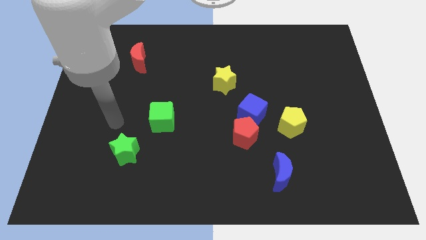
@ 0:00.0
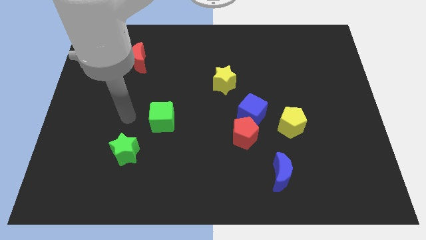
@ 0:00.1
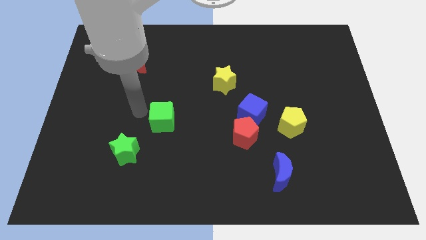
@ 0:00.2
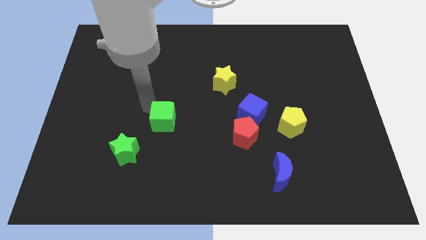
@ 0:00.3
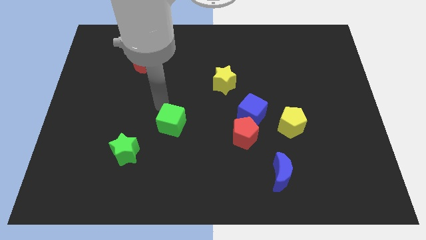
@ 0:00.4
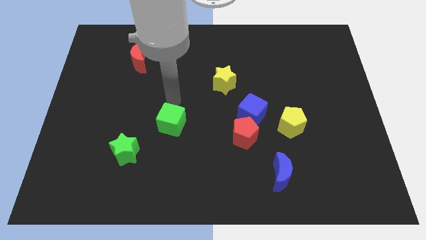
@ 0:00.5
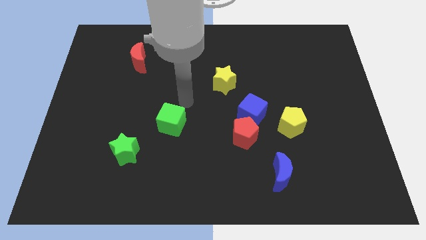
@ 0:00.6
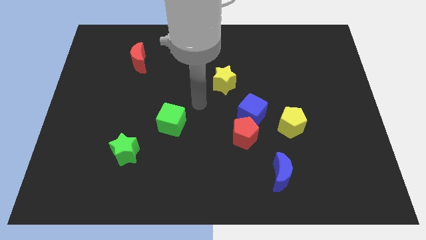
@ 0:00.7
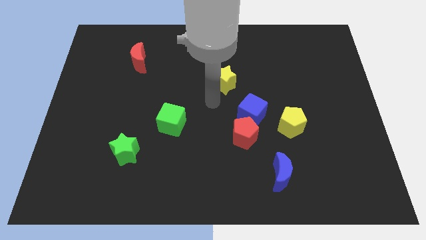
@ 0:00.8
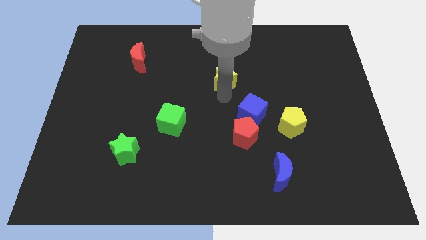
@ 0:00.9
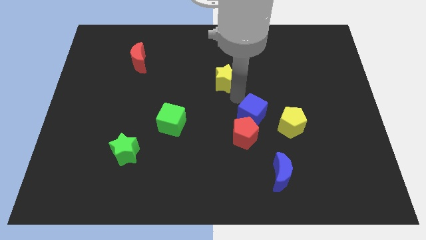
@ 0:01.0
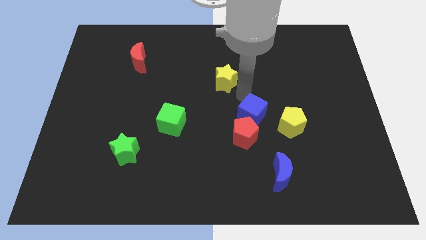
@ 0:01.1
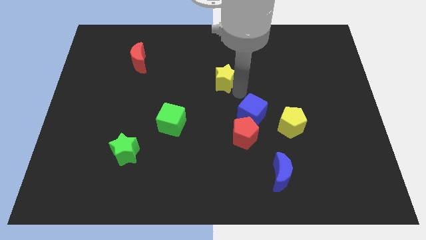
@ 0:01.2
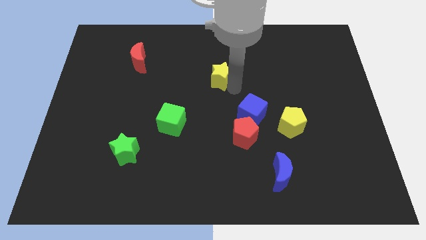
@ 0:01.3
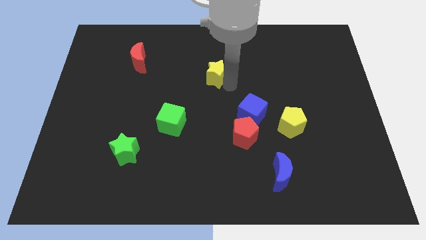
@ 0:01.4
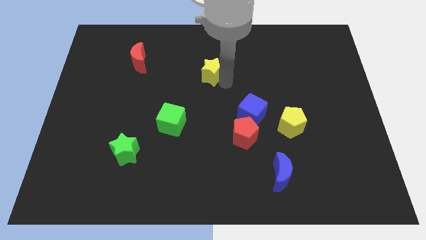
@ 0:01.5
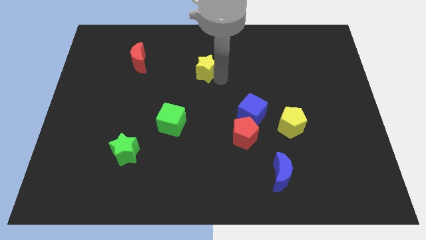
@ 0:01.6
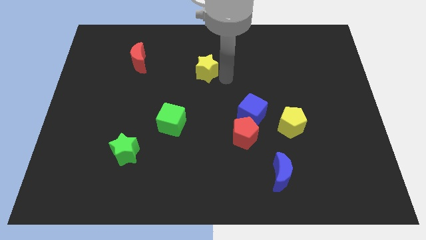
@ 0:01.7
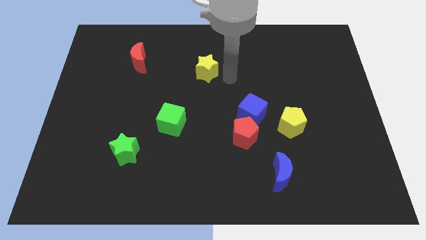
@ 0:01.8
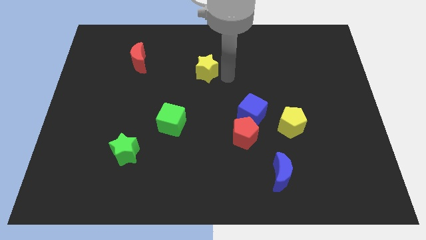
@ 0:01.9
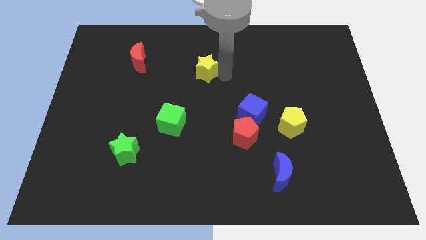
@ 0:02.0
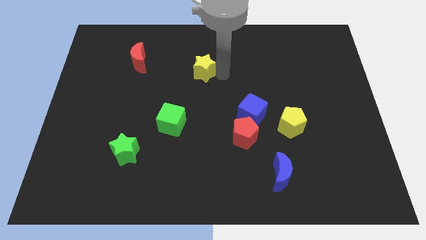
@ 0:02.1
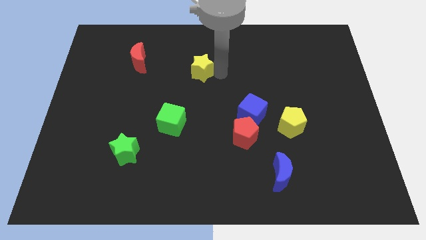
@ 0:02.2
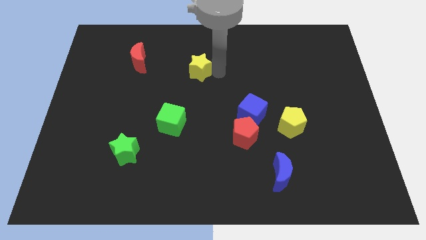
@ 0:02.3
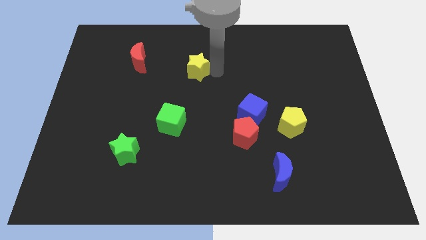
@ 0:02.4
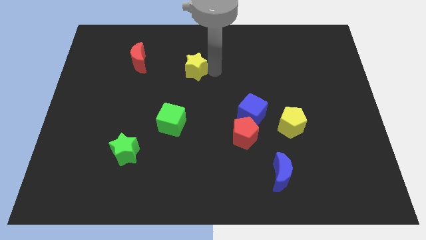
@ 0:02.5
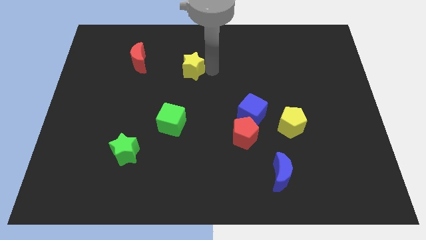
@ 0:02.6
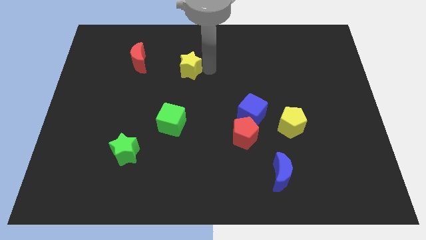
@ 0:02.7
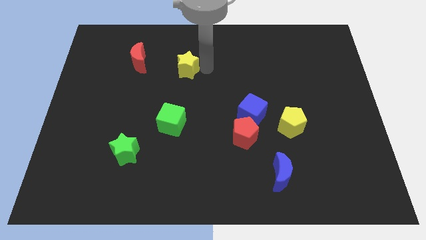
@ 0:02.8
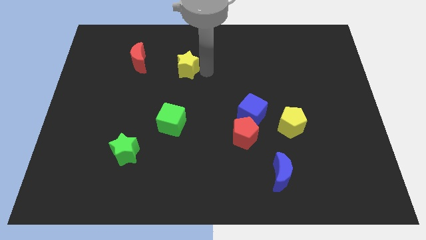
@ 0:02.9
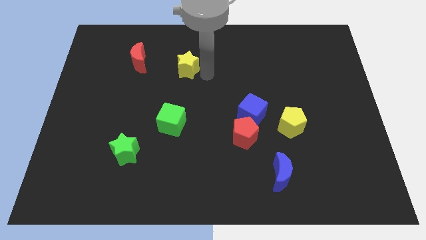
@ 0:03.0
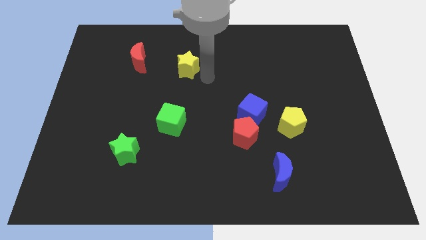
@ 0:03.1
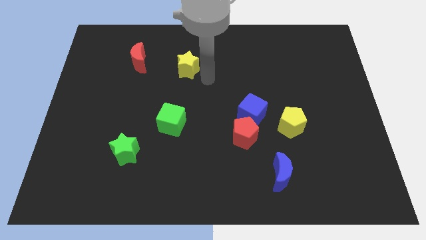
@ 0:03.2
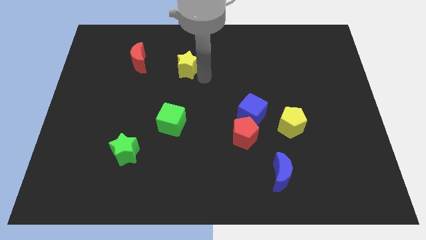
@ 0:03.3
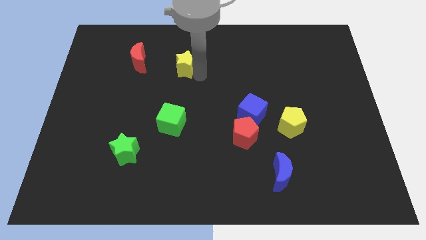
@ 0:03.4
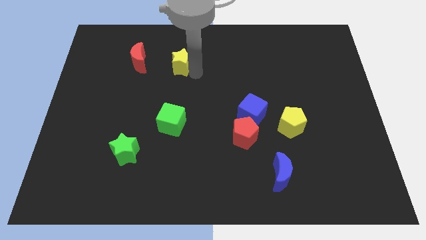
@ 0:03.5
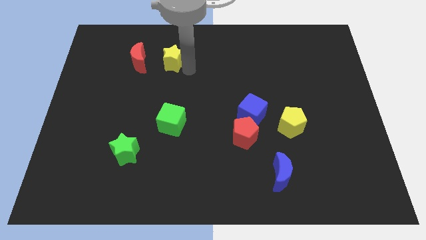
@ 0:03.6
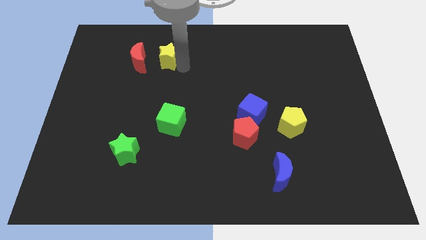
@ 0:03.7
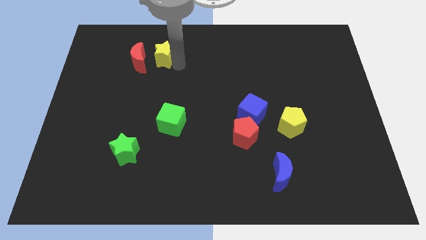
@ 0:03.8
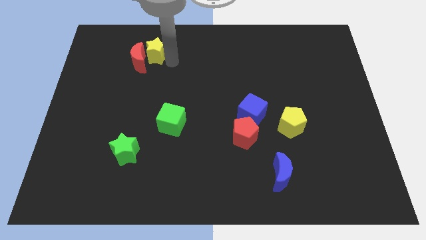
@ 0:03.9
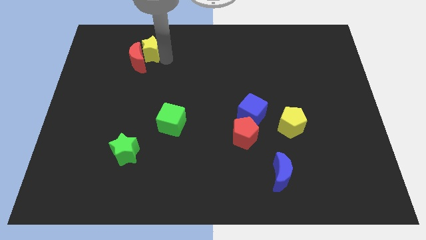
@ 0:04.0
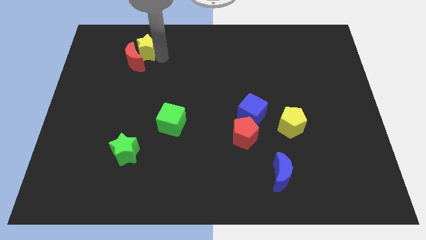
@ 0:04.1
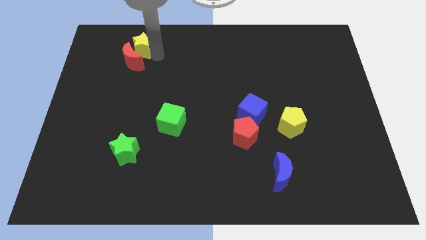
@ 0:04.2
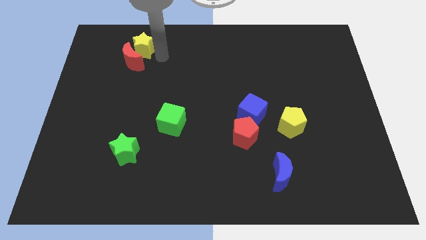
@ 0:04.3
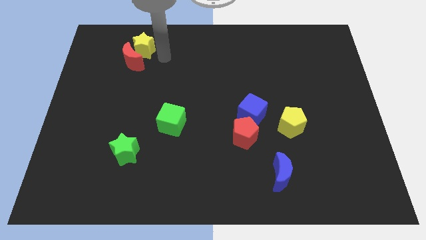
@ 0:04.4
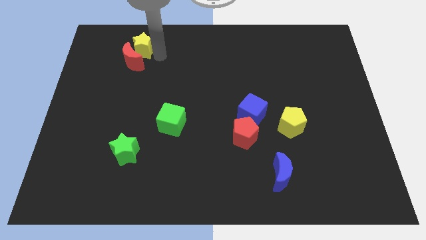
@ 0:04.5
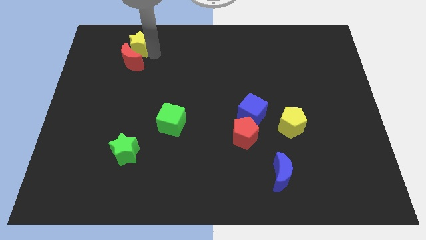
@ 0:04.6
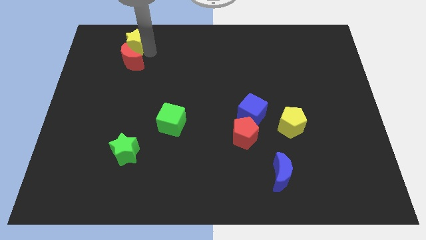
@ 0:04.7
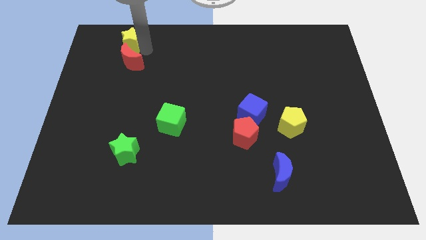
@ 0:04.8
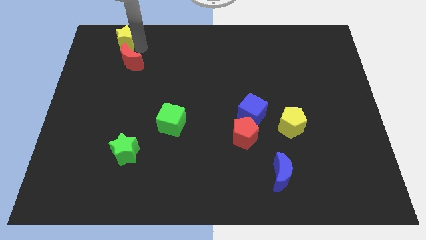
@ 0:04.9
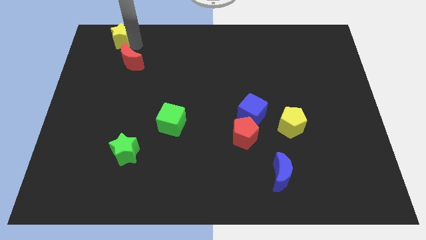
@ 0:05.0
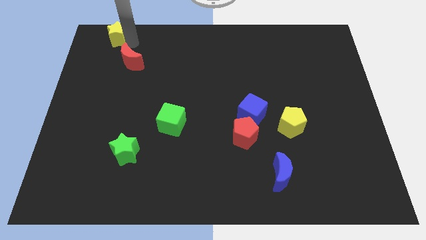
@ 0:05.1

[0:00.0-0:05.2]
slide the yellow star to the top left corner

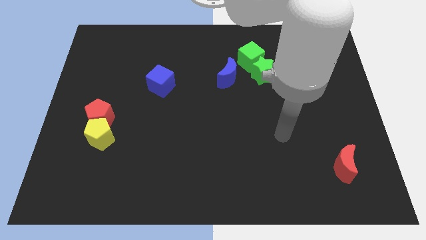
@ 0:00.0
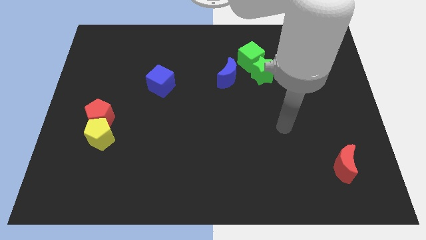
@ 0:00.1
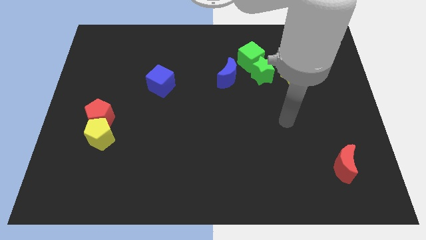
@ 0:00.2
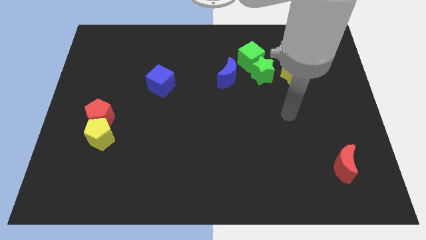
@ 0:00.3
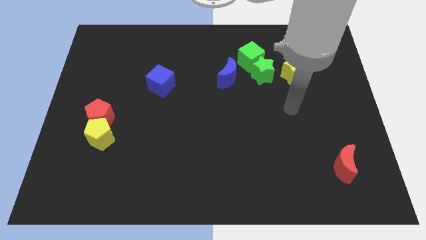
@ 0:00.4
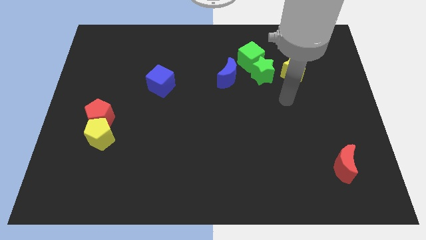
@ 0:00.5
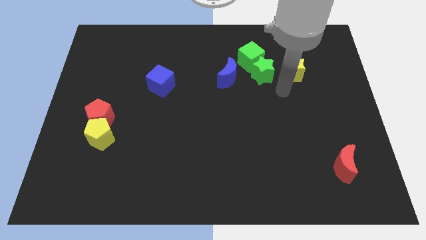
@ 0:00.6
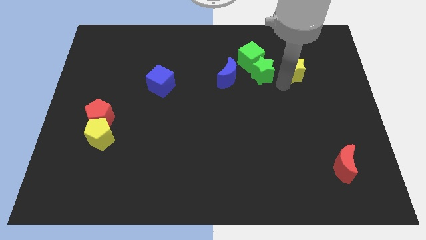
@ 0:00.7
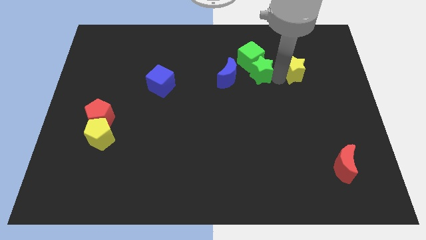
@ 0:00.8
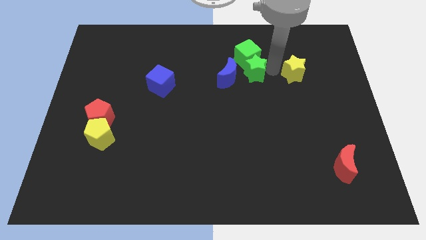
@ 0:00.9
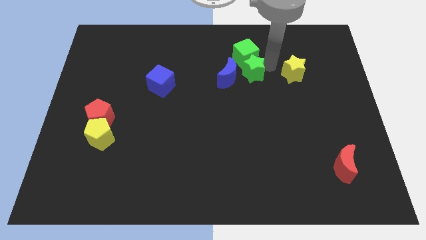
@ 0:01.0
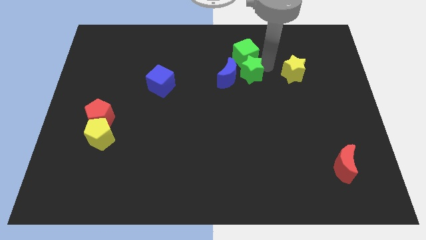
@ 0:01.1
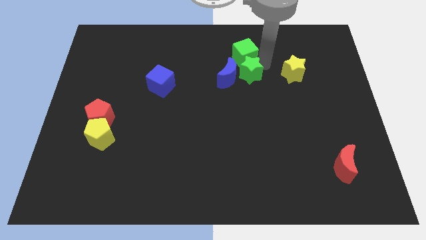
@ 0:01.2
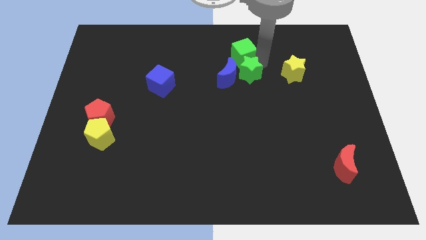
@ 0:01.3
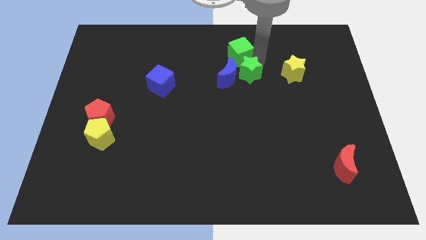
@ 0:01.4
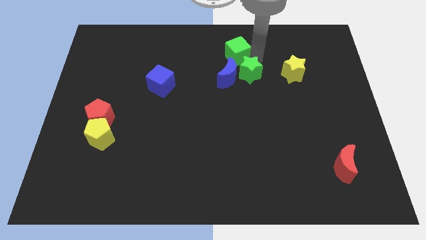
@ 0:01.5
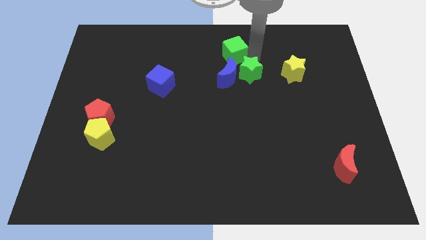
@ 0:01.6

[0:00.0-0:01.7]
push the green cube to the top side

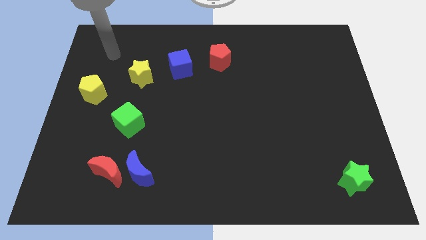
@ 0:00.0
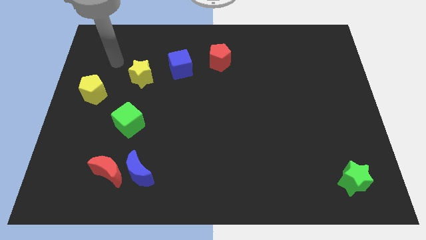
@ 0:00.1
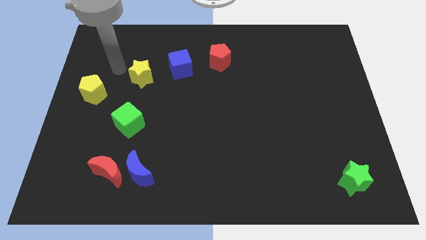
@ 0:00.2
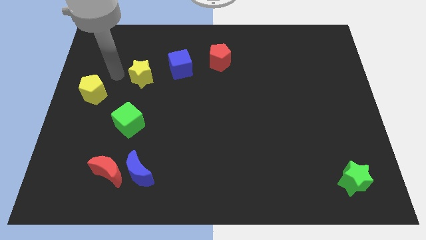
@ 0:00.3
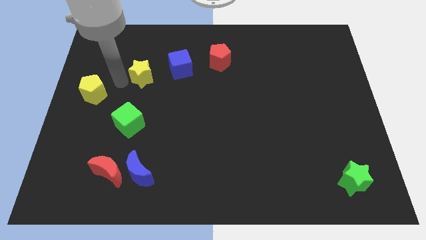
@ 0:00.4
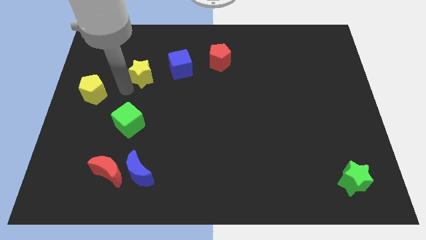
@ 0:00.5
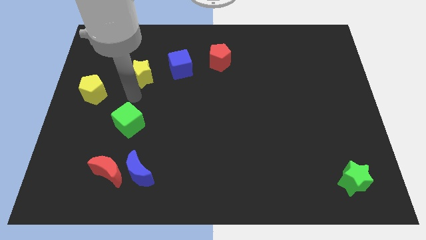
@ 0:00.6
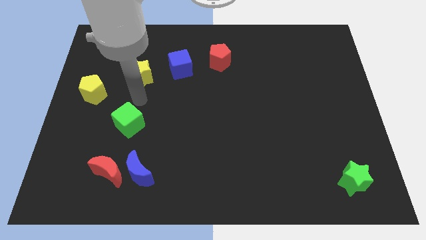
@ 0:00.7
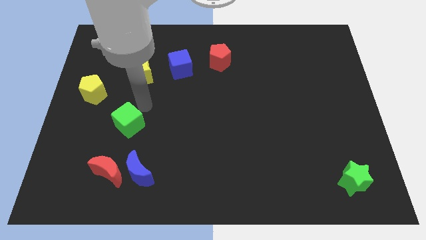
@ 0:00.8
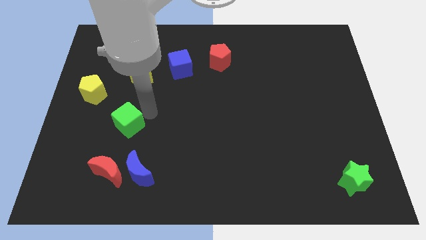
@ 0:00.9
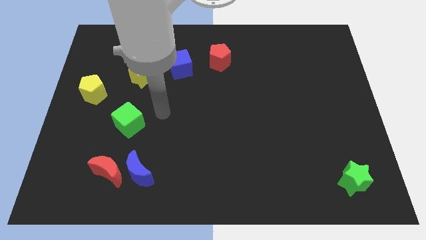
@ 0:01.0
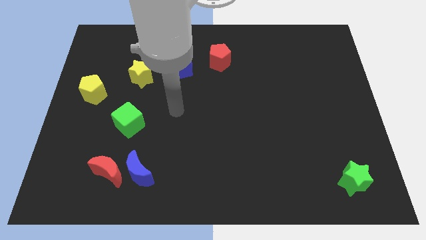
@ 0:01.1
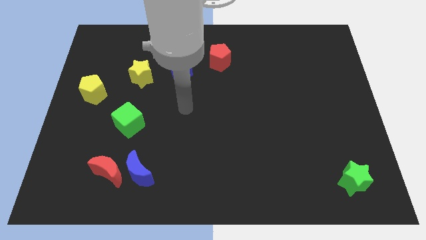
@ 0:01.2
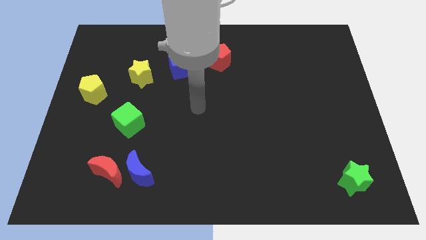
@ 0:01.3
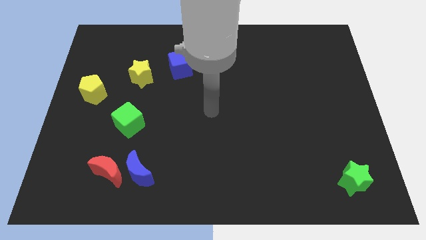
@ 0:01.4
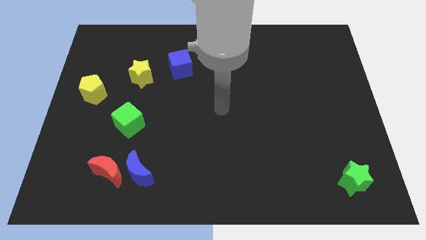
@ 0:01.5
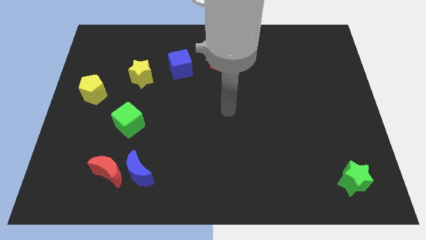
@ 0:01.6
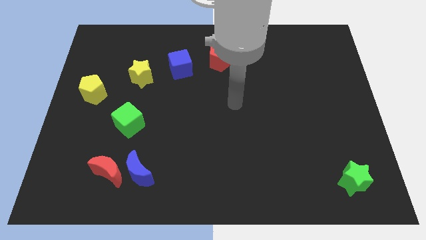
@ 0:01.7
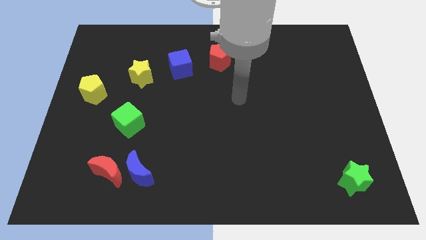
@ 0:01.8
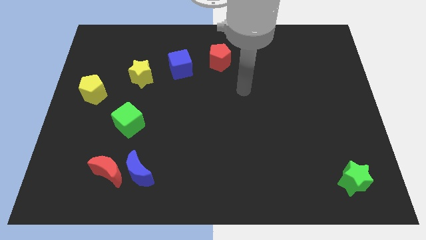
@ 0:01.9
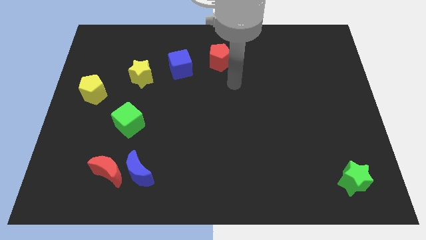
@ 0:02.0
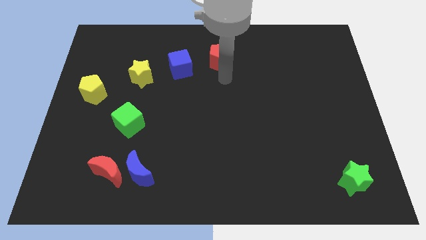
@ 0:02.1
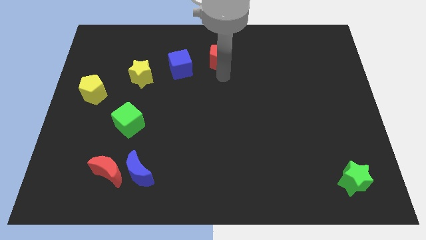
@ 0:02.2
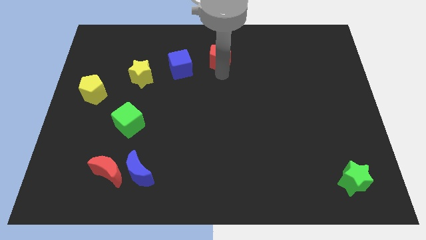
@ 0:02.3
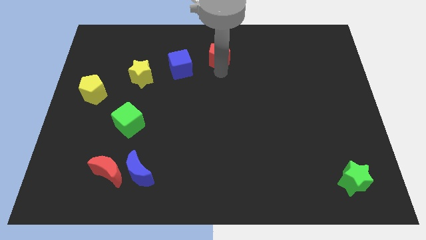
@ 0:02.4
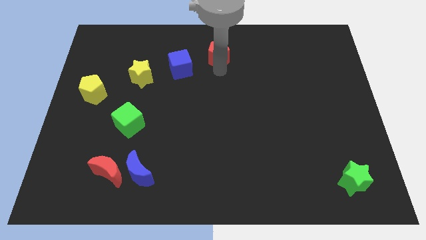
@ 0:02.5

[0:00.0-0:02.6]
move the red pentagon to the top side
